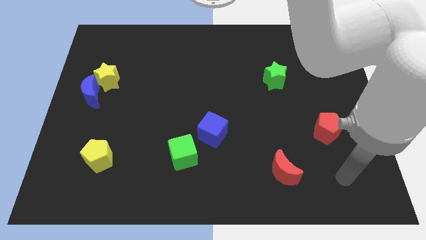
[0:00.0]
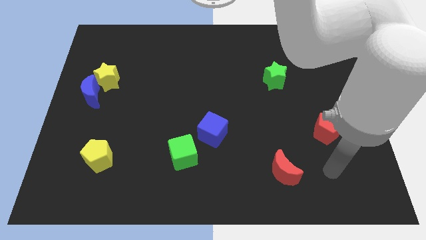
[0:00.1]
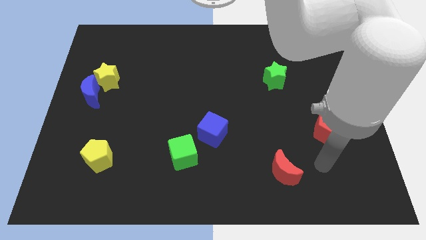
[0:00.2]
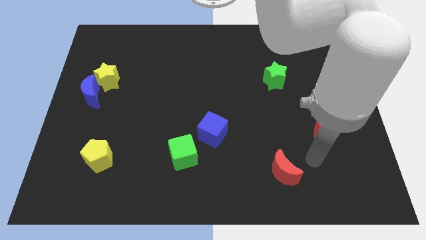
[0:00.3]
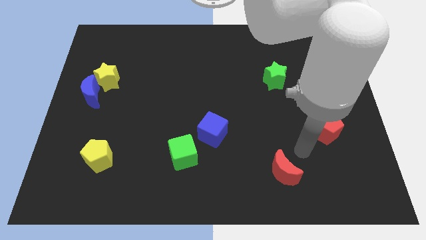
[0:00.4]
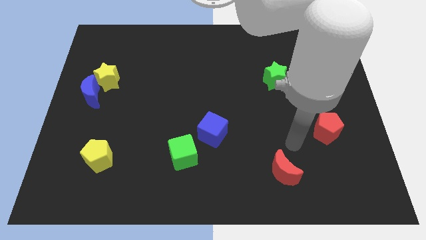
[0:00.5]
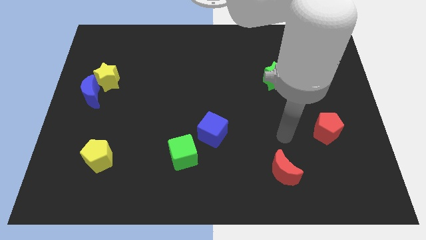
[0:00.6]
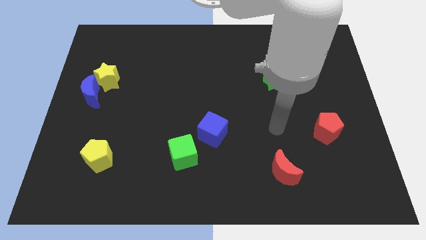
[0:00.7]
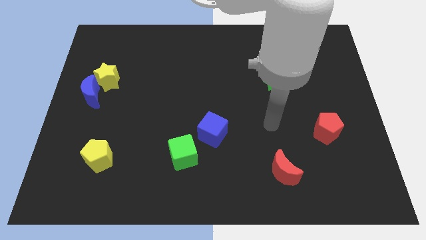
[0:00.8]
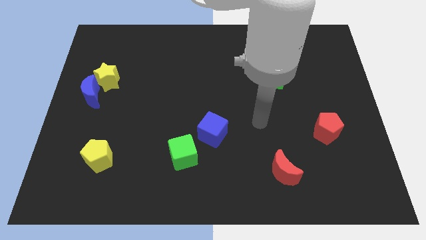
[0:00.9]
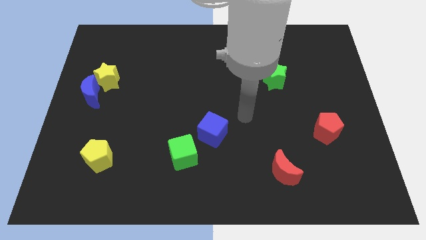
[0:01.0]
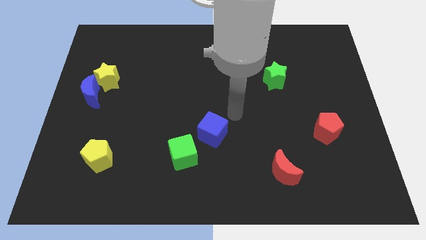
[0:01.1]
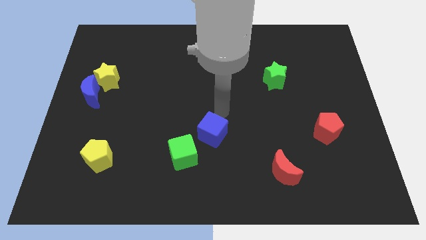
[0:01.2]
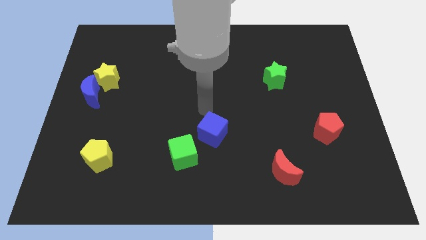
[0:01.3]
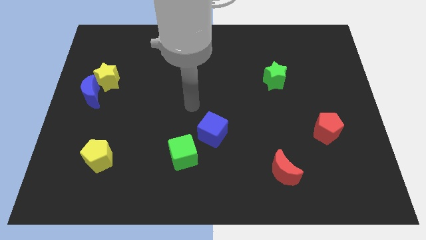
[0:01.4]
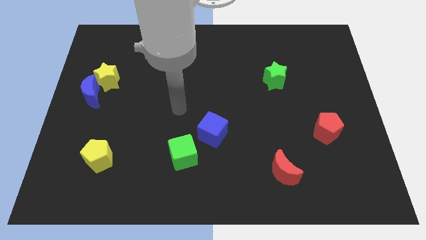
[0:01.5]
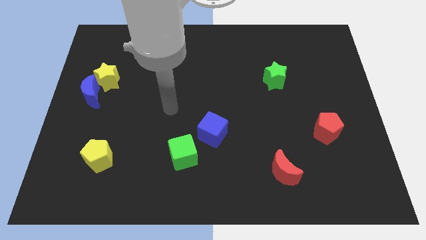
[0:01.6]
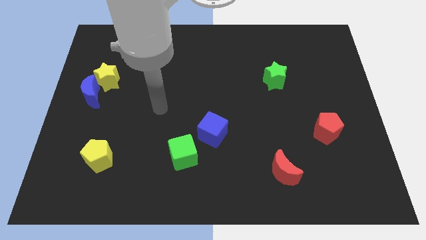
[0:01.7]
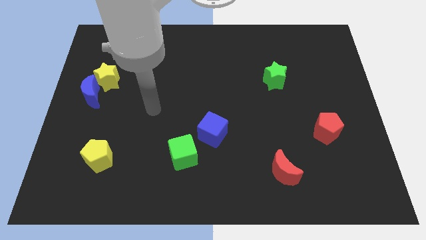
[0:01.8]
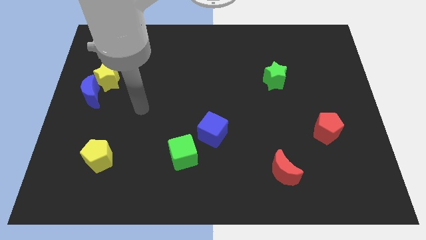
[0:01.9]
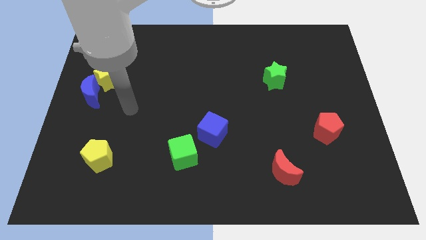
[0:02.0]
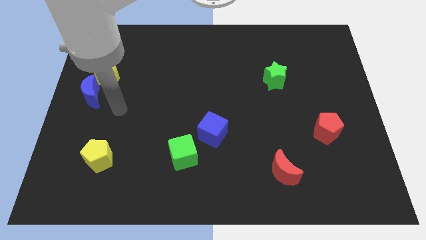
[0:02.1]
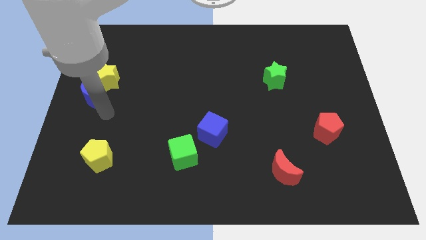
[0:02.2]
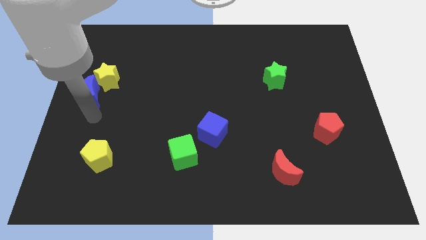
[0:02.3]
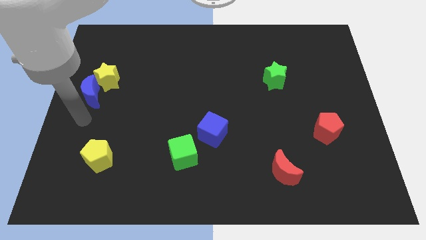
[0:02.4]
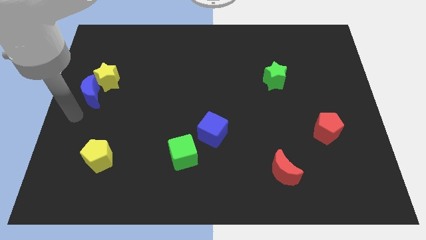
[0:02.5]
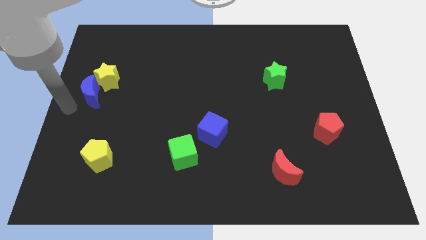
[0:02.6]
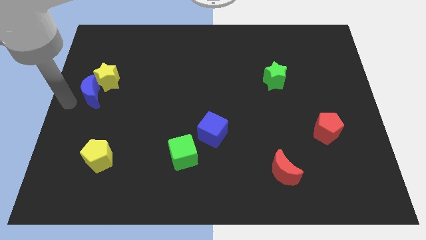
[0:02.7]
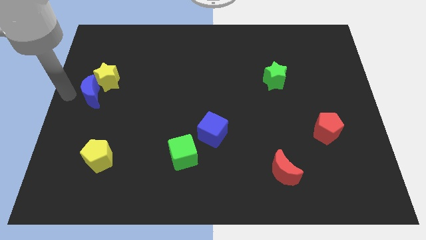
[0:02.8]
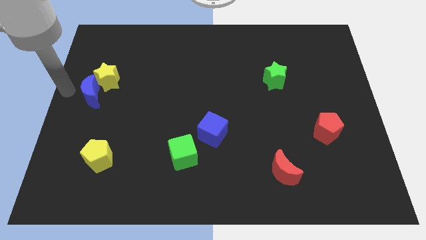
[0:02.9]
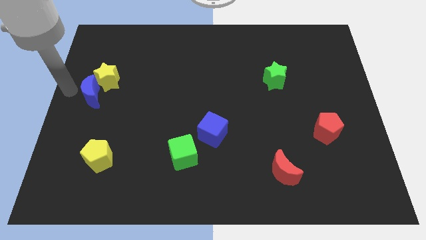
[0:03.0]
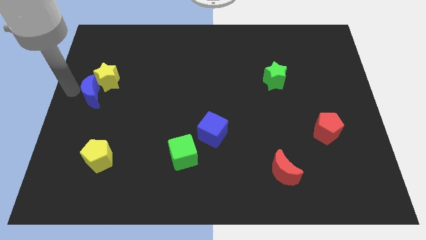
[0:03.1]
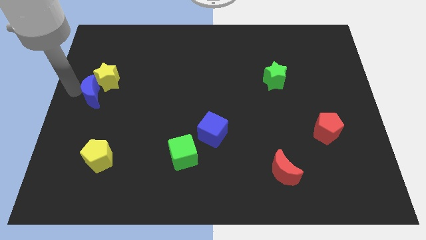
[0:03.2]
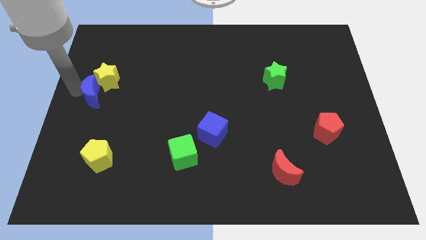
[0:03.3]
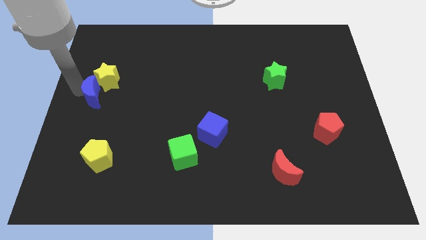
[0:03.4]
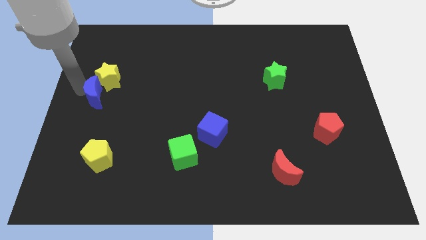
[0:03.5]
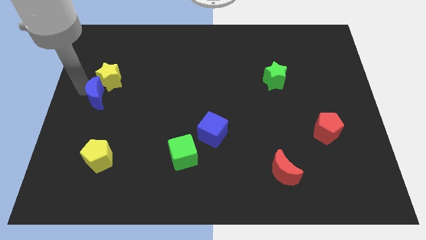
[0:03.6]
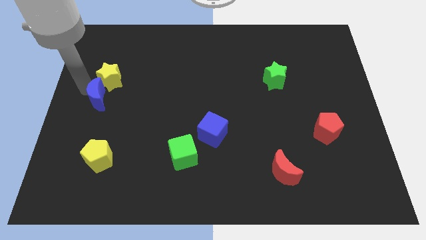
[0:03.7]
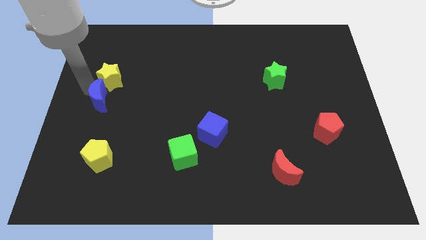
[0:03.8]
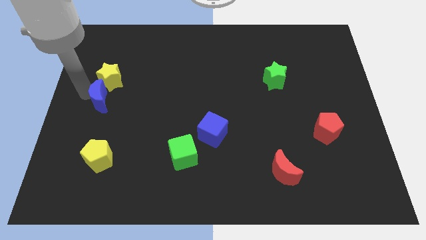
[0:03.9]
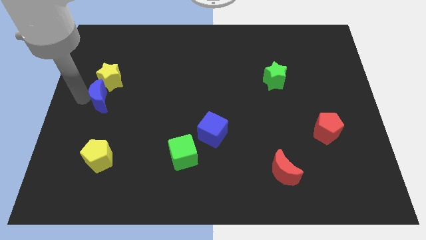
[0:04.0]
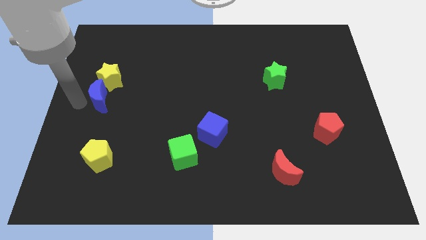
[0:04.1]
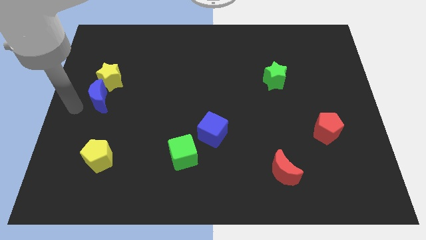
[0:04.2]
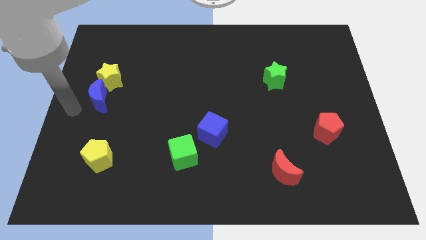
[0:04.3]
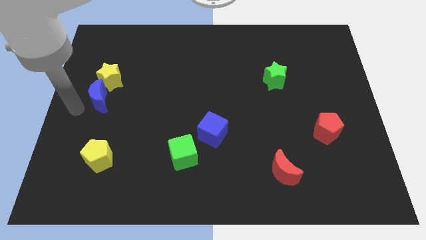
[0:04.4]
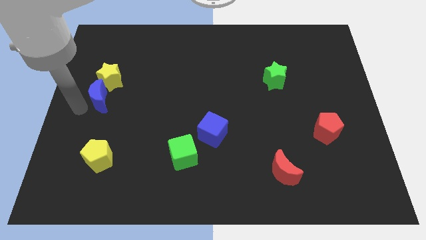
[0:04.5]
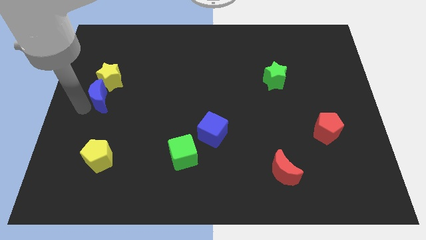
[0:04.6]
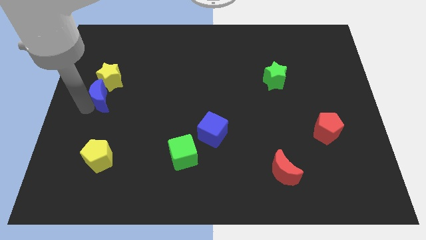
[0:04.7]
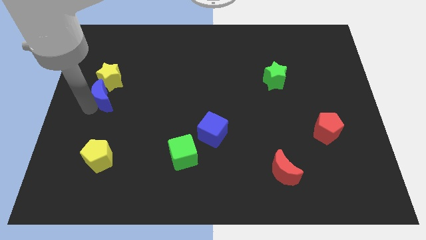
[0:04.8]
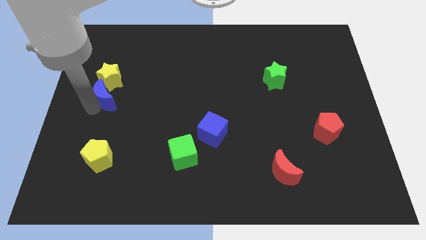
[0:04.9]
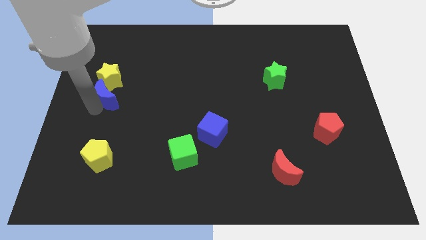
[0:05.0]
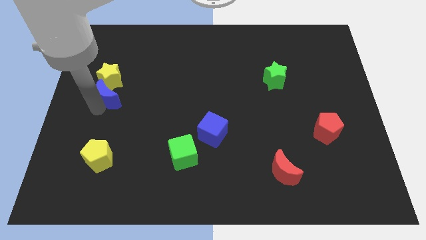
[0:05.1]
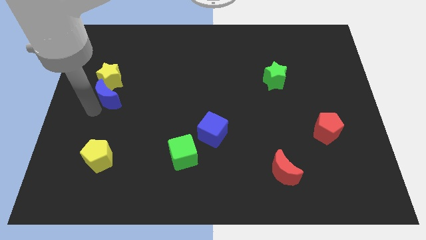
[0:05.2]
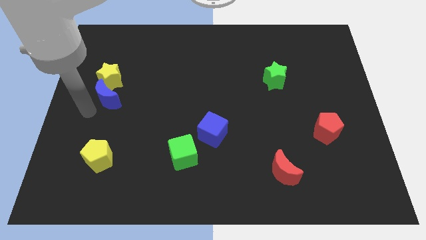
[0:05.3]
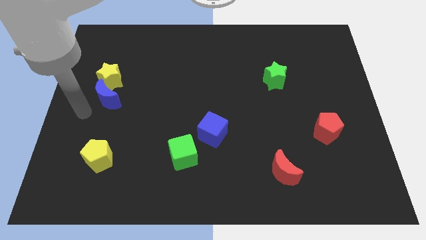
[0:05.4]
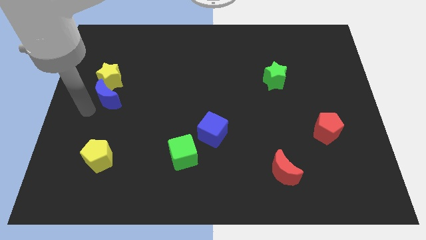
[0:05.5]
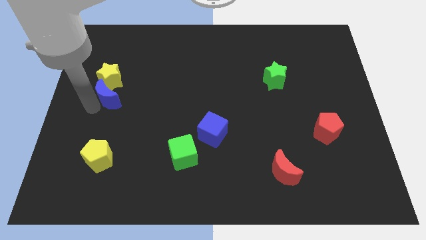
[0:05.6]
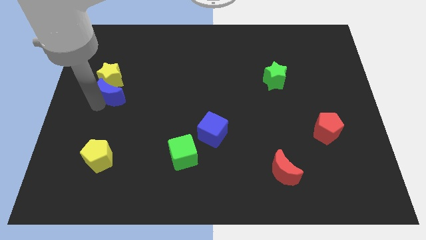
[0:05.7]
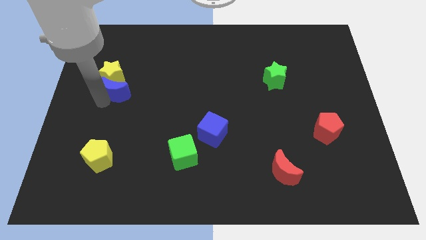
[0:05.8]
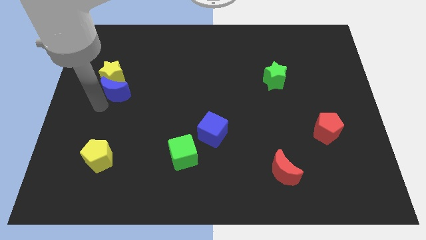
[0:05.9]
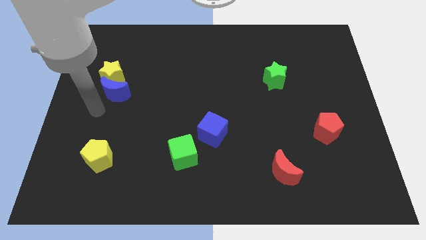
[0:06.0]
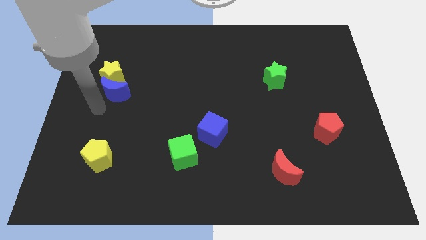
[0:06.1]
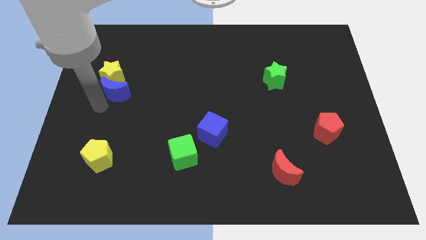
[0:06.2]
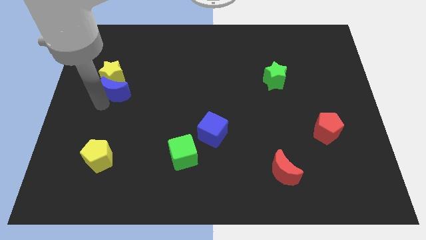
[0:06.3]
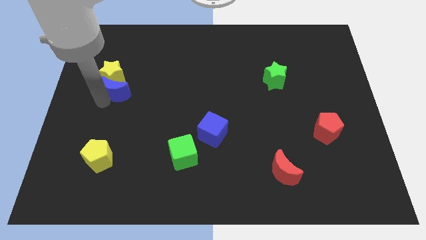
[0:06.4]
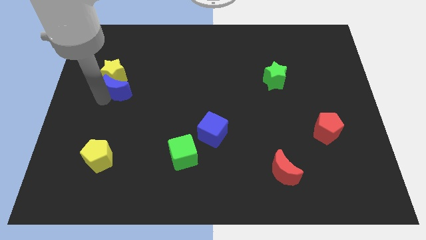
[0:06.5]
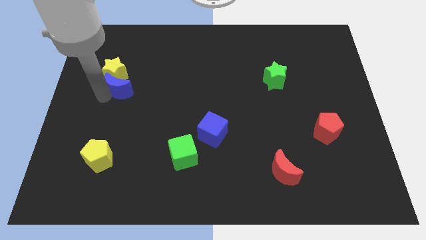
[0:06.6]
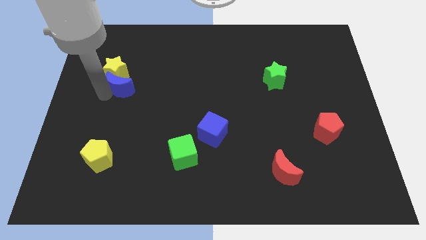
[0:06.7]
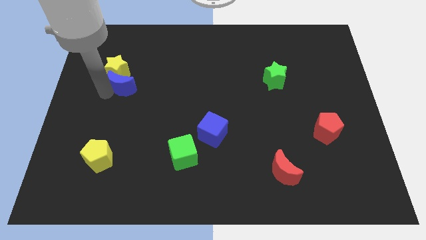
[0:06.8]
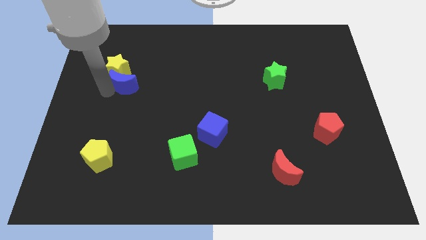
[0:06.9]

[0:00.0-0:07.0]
push the blue moon upwards and then right a little

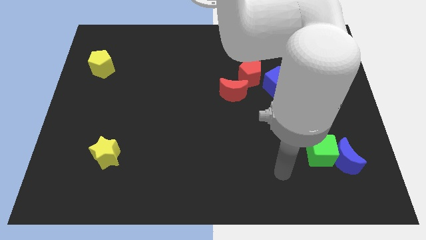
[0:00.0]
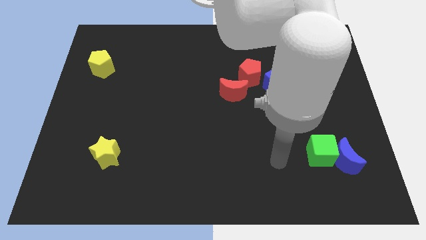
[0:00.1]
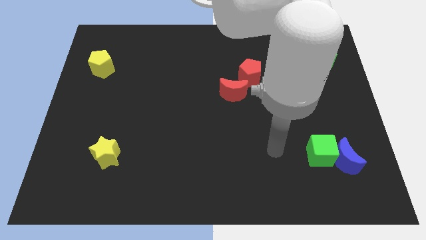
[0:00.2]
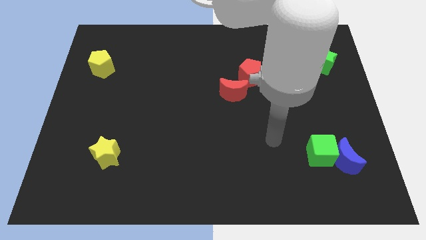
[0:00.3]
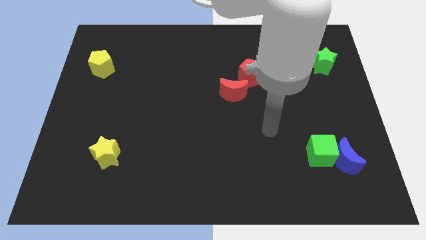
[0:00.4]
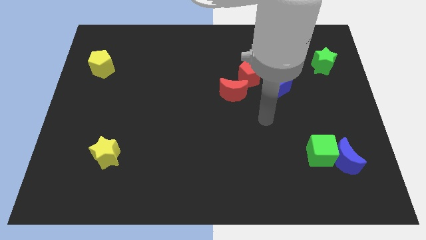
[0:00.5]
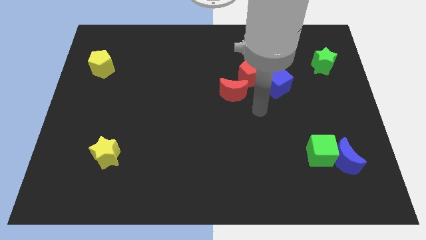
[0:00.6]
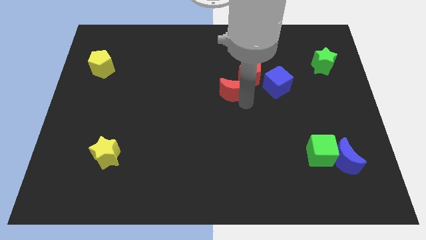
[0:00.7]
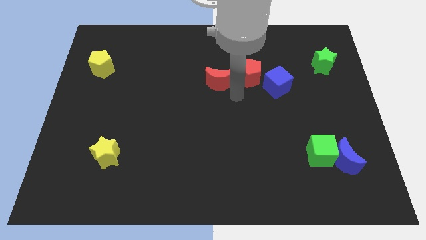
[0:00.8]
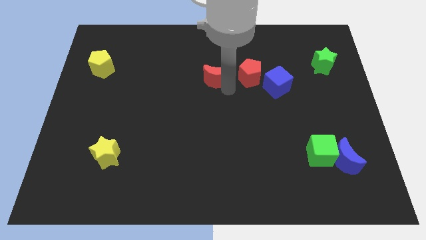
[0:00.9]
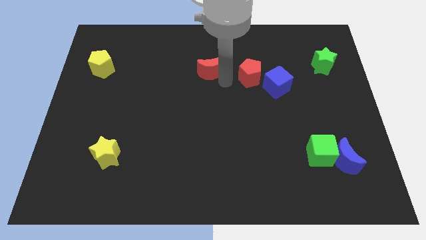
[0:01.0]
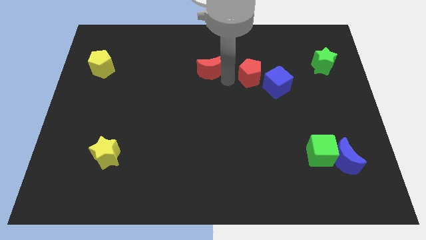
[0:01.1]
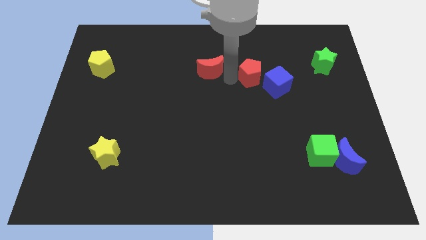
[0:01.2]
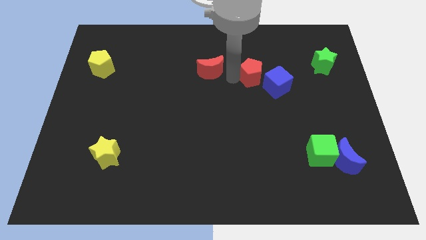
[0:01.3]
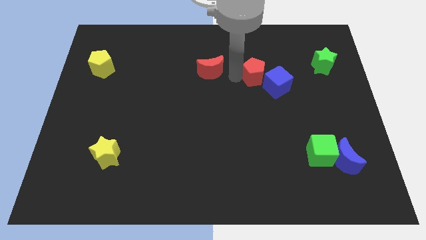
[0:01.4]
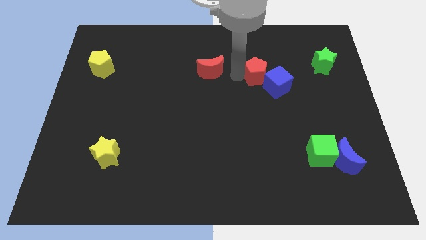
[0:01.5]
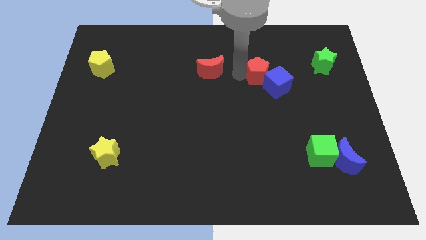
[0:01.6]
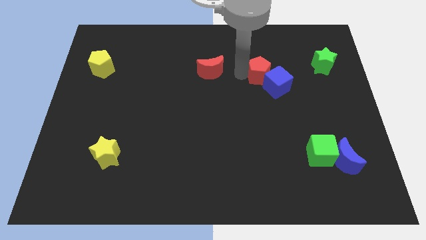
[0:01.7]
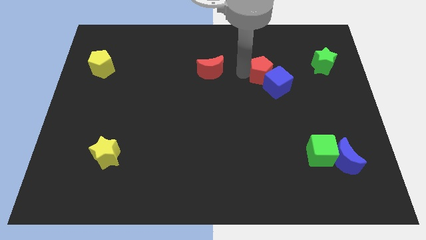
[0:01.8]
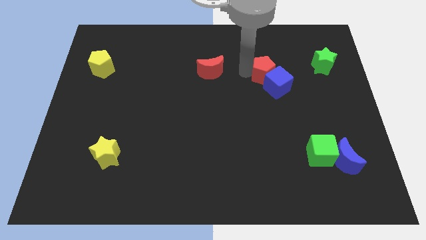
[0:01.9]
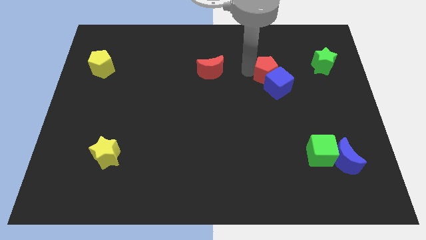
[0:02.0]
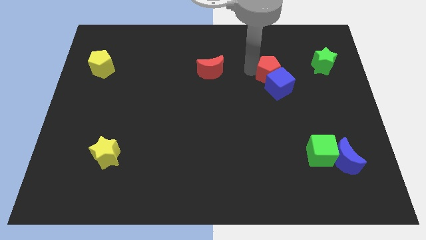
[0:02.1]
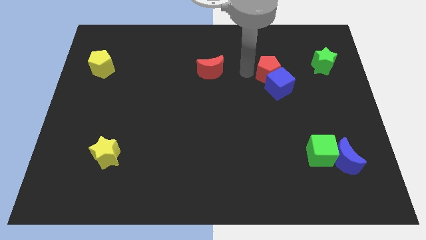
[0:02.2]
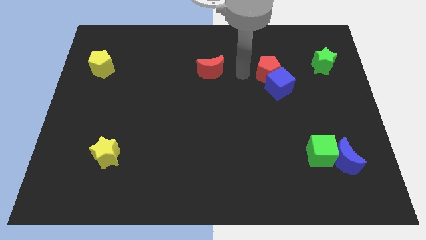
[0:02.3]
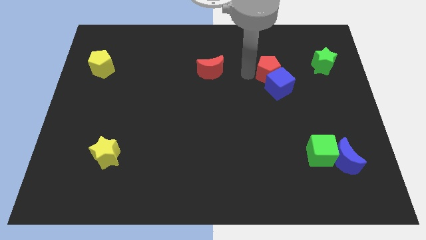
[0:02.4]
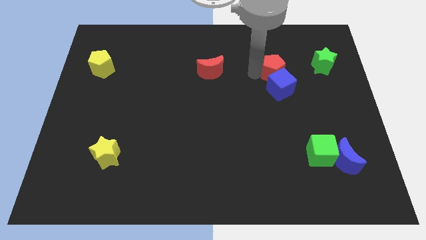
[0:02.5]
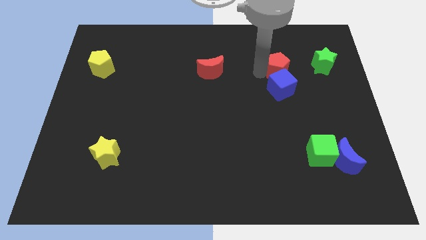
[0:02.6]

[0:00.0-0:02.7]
slightly move the red pentagon right
